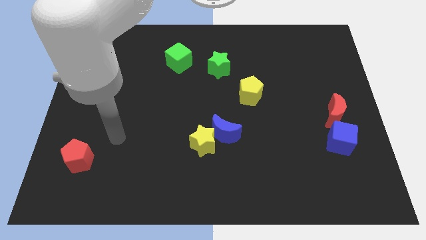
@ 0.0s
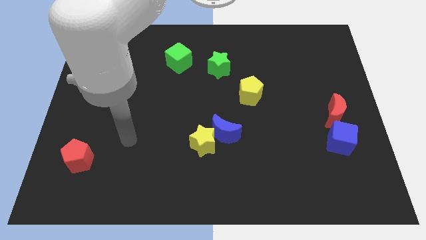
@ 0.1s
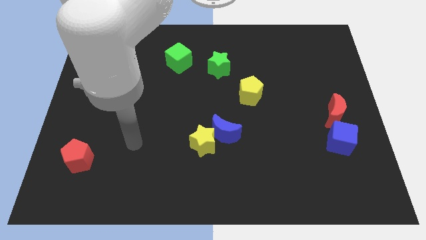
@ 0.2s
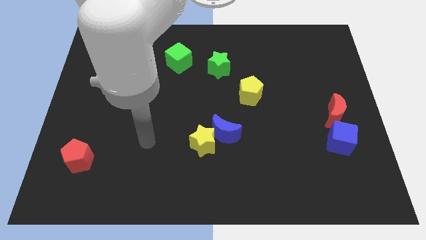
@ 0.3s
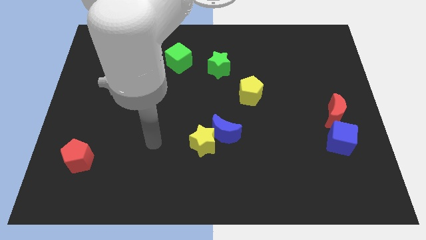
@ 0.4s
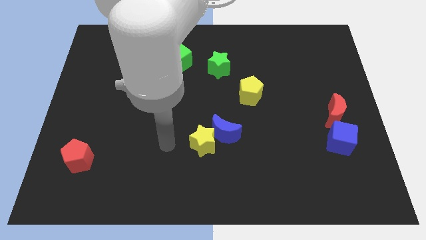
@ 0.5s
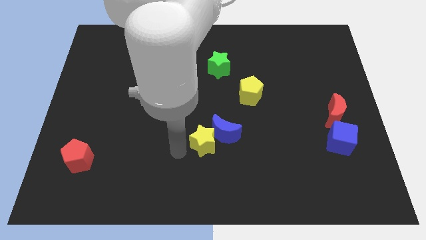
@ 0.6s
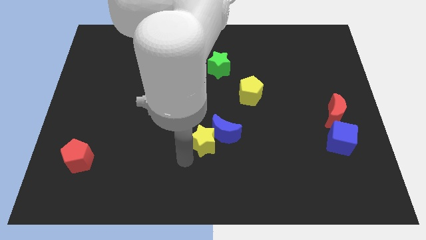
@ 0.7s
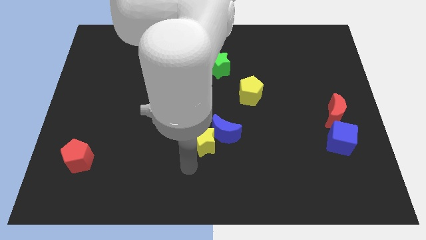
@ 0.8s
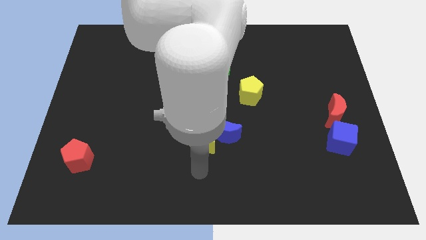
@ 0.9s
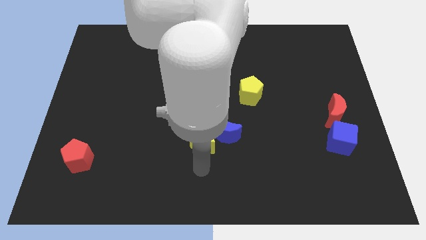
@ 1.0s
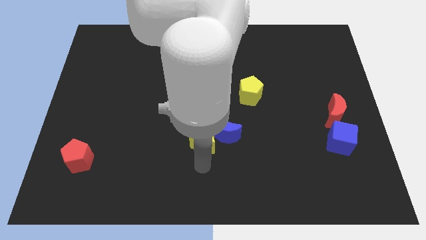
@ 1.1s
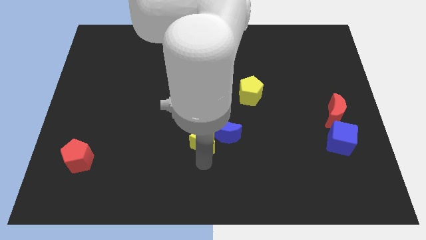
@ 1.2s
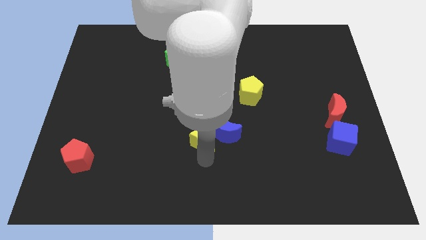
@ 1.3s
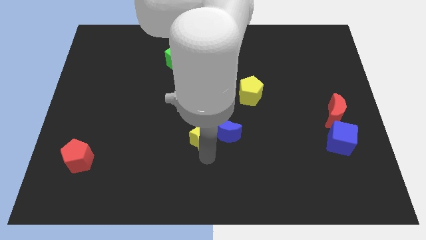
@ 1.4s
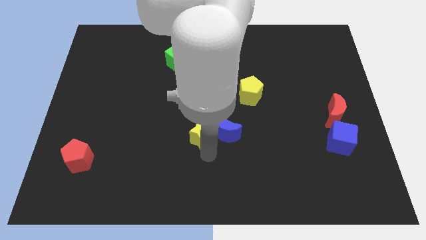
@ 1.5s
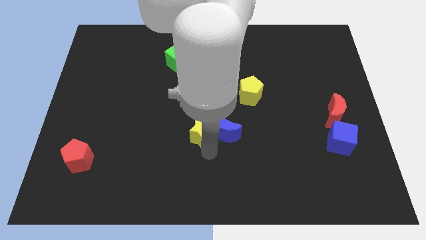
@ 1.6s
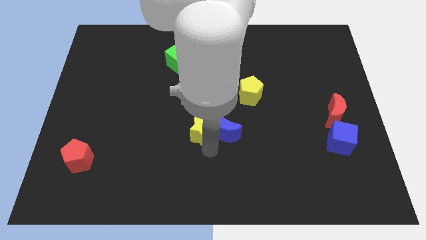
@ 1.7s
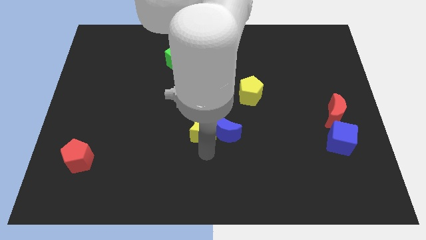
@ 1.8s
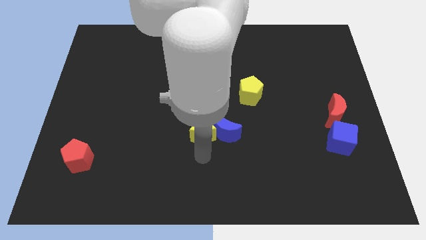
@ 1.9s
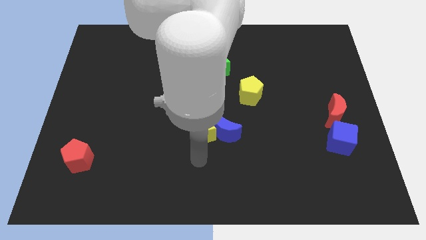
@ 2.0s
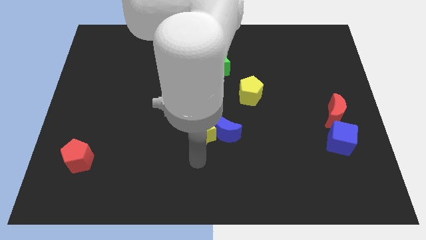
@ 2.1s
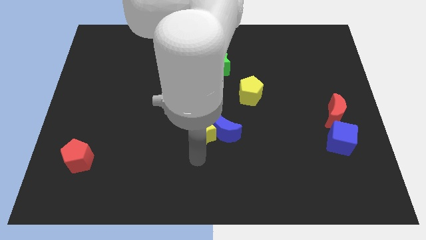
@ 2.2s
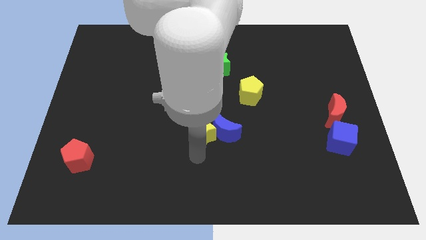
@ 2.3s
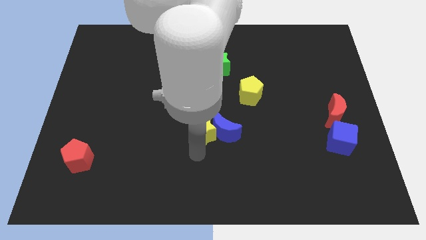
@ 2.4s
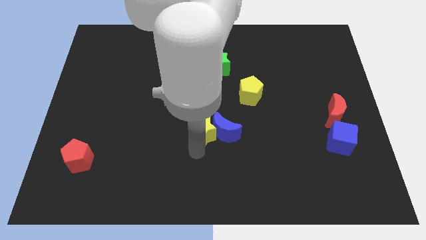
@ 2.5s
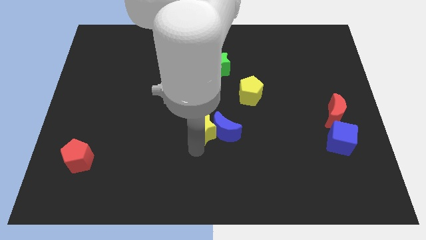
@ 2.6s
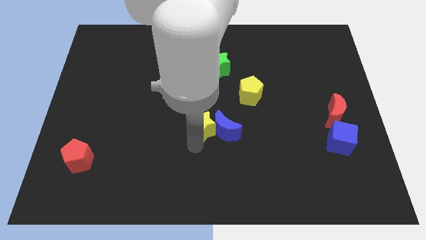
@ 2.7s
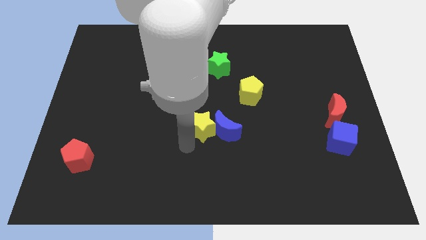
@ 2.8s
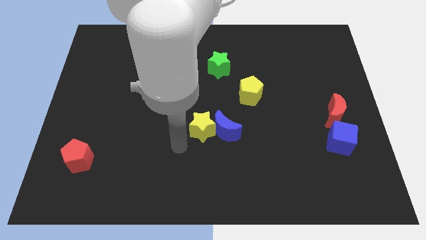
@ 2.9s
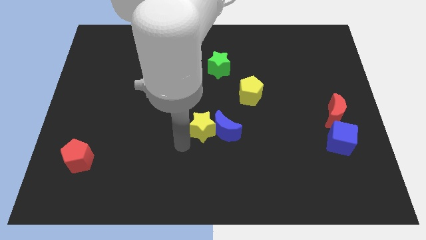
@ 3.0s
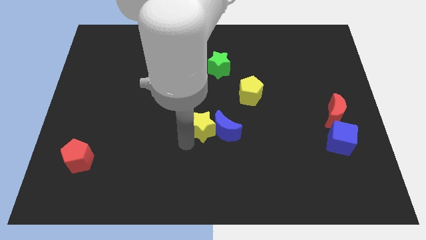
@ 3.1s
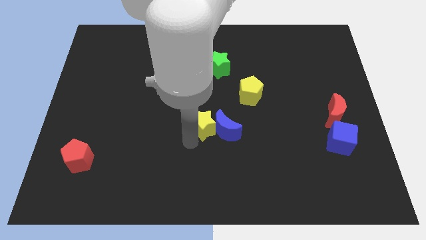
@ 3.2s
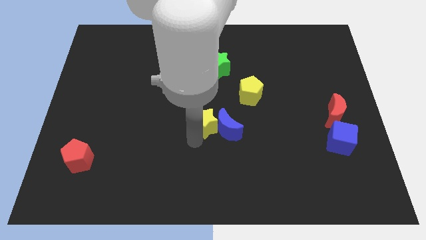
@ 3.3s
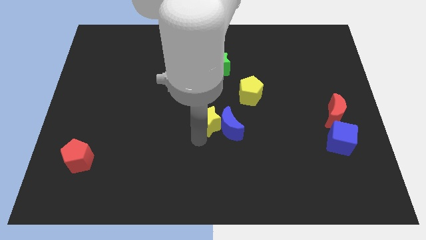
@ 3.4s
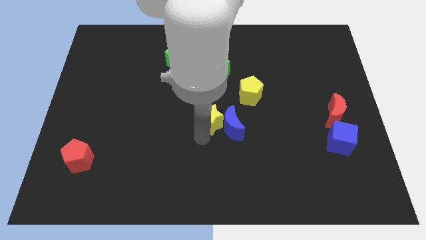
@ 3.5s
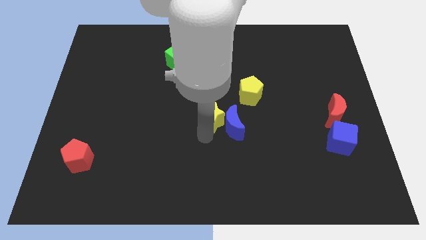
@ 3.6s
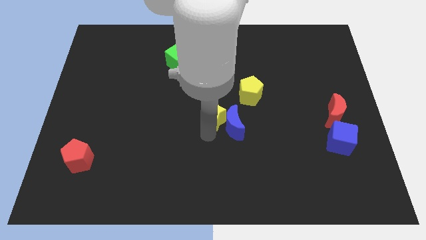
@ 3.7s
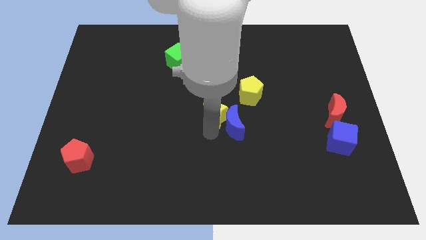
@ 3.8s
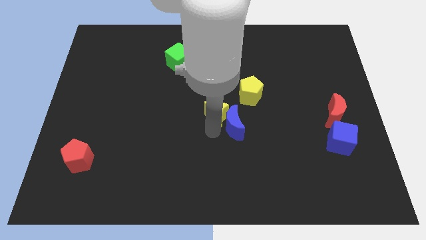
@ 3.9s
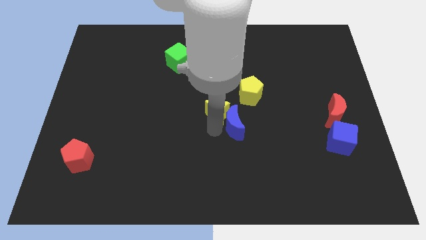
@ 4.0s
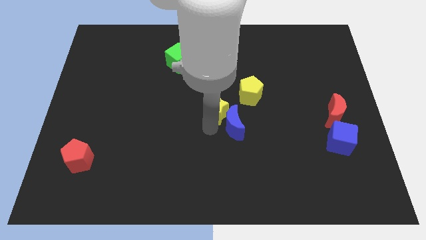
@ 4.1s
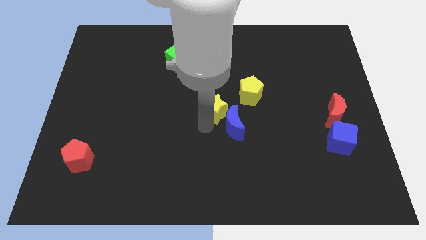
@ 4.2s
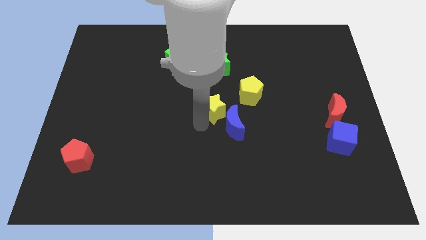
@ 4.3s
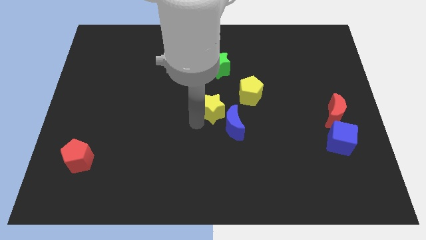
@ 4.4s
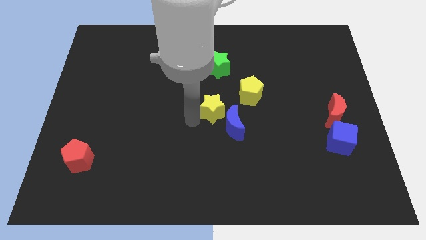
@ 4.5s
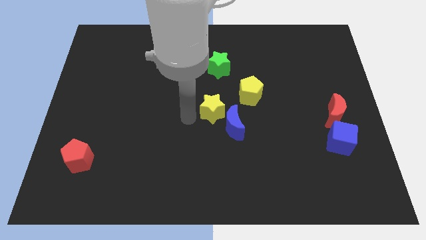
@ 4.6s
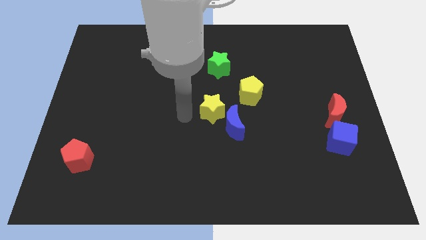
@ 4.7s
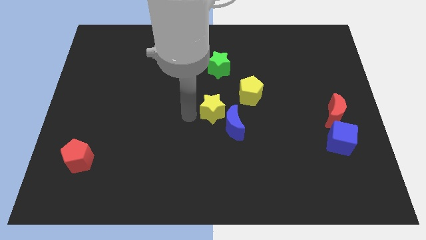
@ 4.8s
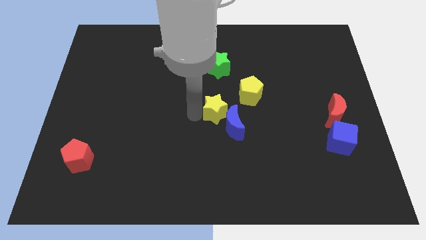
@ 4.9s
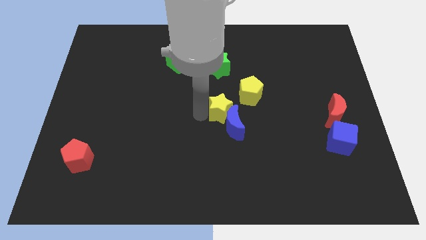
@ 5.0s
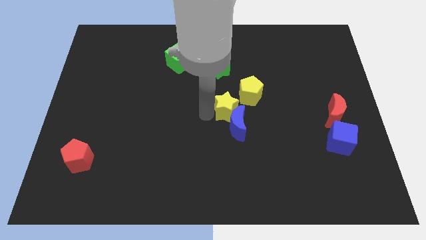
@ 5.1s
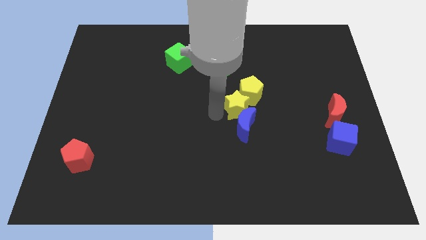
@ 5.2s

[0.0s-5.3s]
move the yellow star to the yellow pentagon

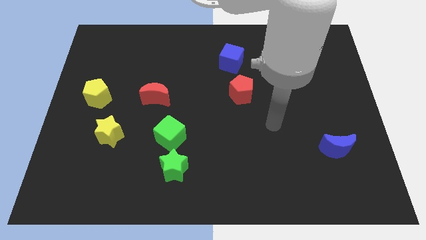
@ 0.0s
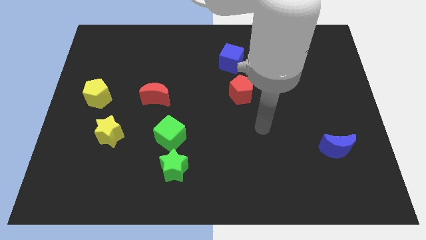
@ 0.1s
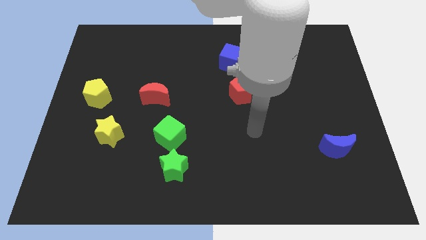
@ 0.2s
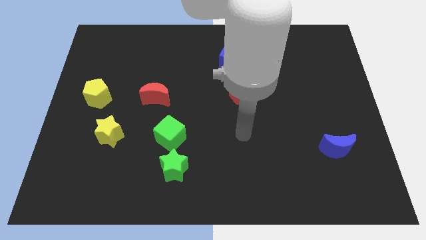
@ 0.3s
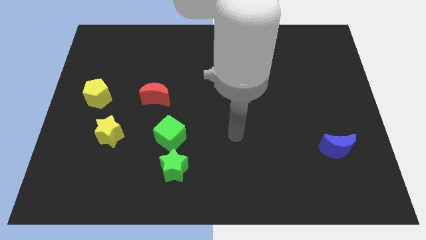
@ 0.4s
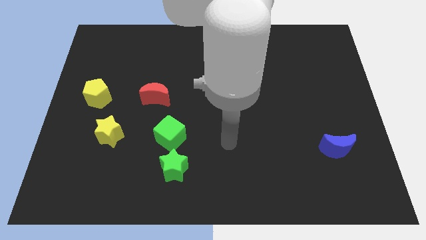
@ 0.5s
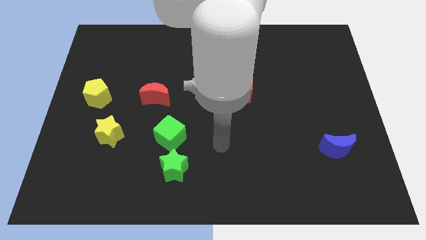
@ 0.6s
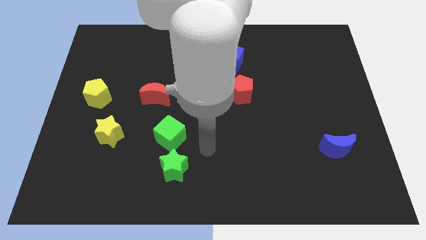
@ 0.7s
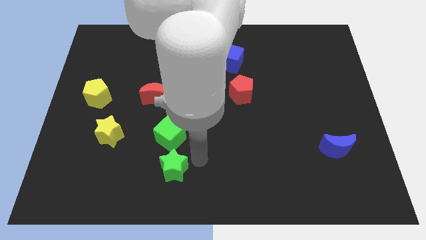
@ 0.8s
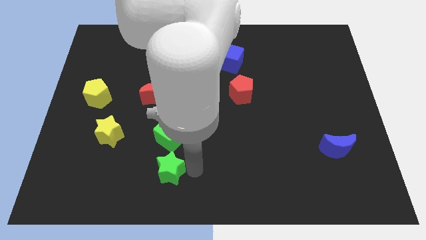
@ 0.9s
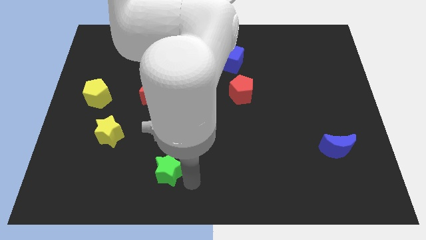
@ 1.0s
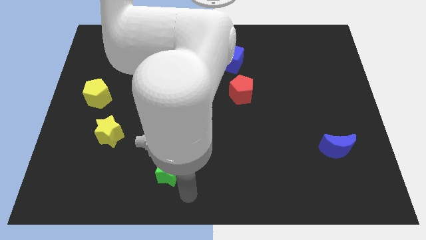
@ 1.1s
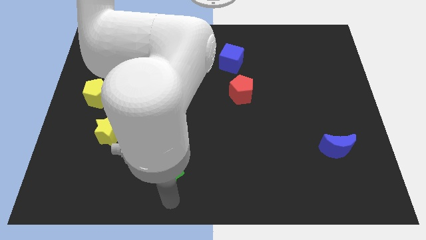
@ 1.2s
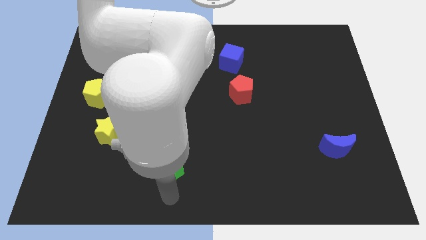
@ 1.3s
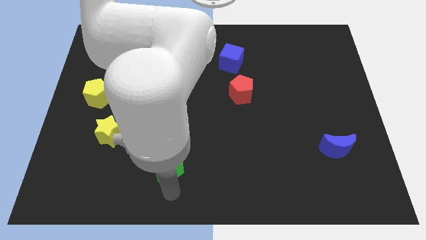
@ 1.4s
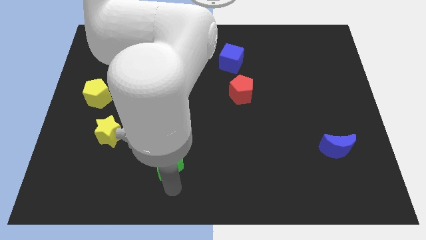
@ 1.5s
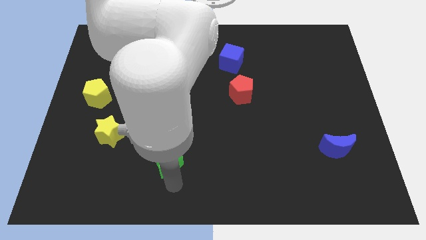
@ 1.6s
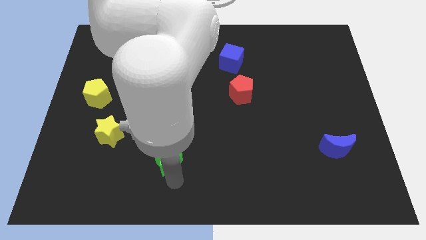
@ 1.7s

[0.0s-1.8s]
push the green star next to the green cube
